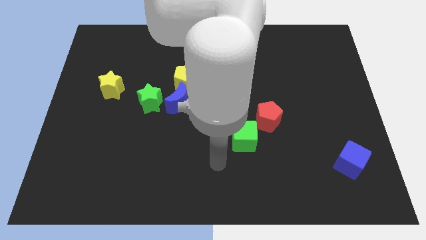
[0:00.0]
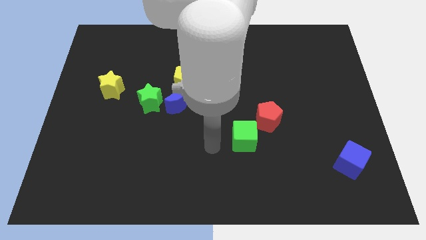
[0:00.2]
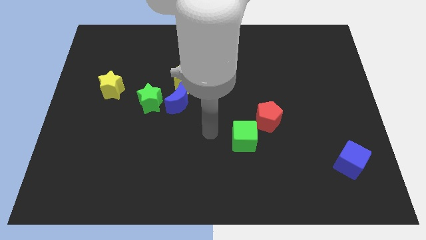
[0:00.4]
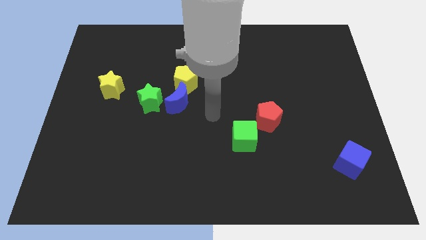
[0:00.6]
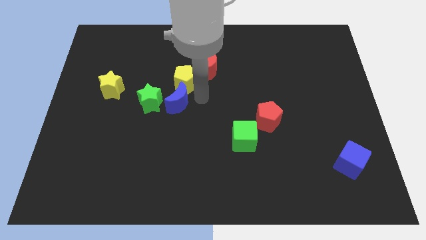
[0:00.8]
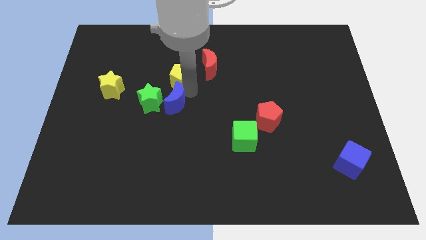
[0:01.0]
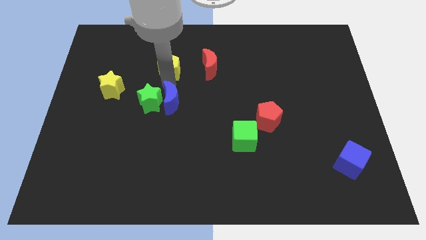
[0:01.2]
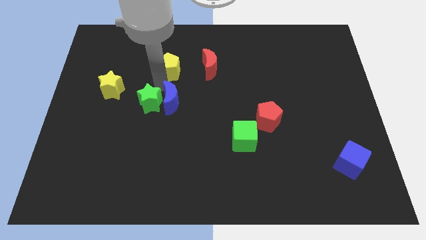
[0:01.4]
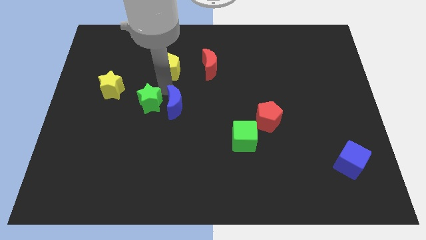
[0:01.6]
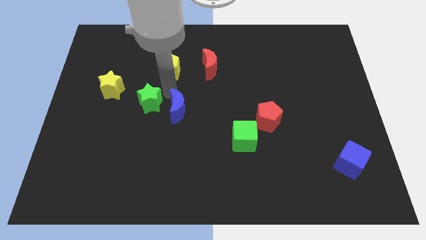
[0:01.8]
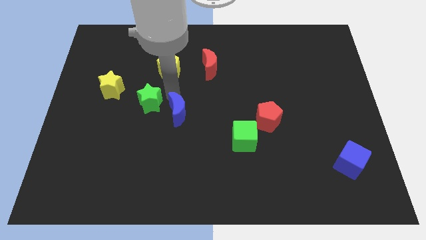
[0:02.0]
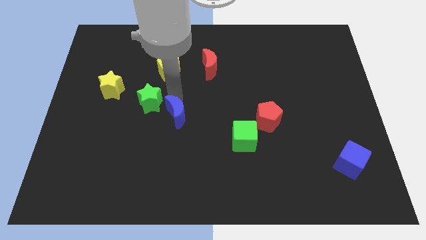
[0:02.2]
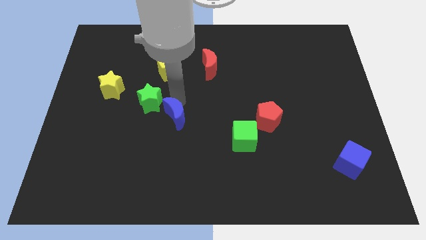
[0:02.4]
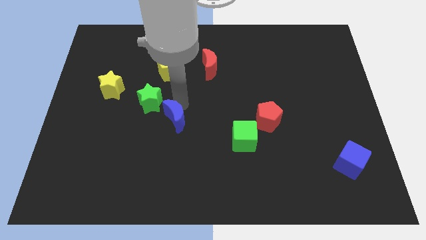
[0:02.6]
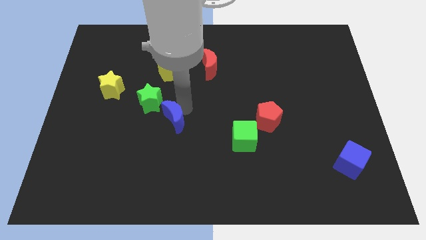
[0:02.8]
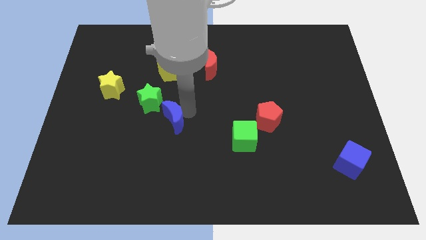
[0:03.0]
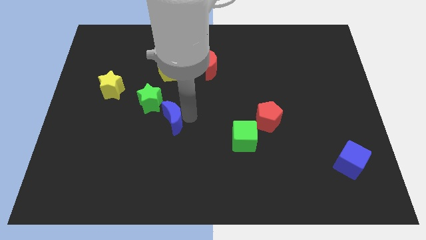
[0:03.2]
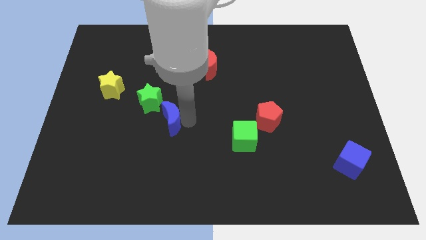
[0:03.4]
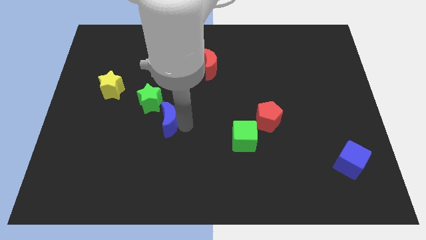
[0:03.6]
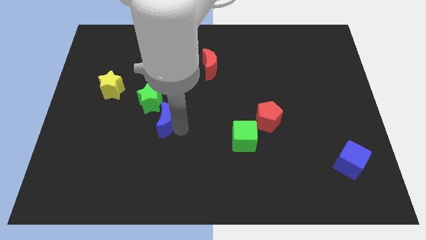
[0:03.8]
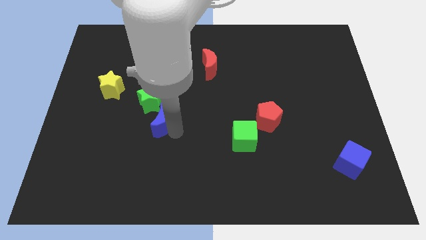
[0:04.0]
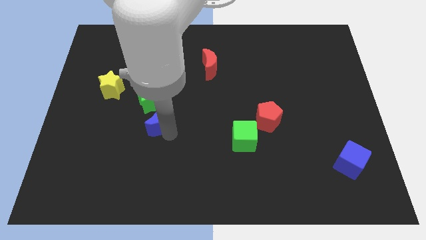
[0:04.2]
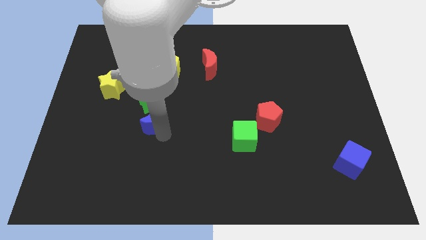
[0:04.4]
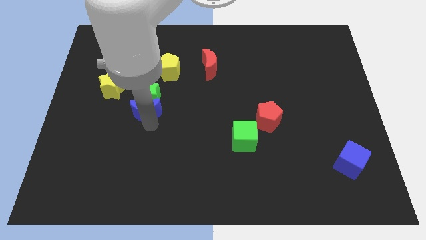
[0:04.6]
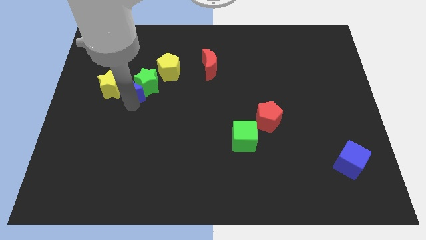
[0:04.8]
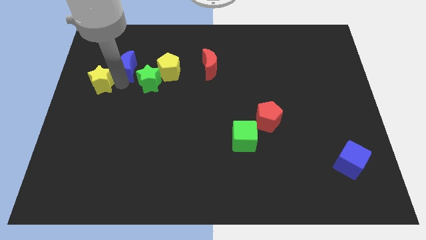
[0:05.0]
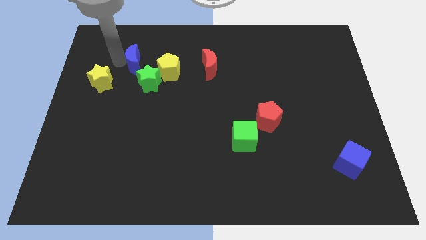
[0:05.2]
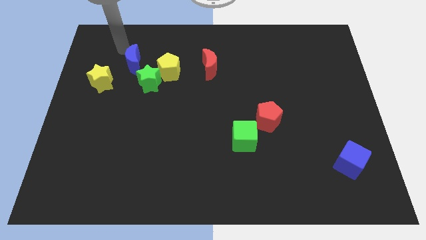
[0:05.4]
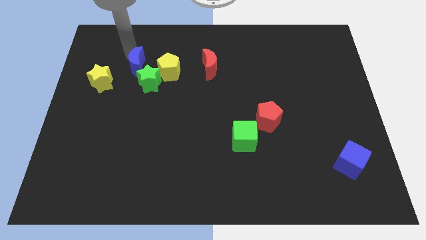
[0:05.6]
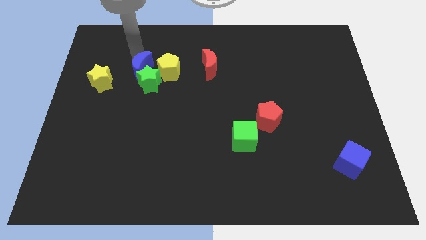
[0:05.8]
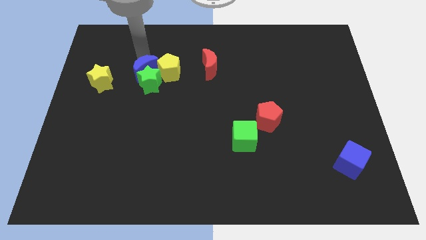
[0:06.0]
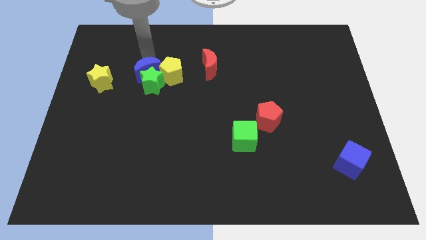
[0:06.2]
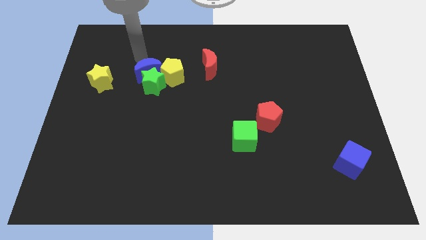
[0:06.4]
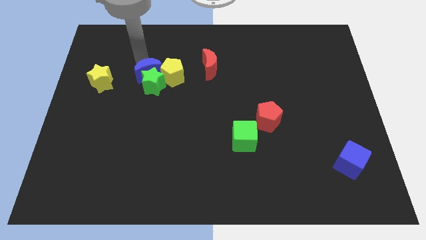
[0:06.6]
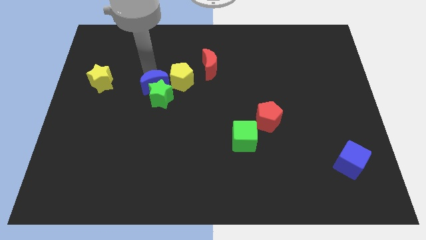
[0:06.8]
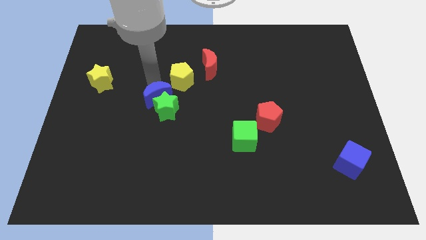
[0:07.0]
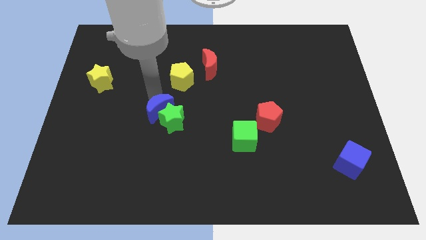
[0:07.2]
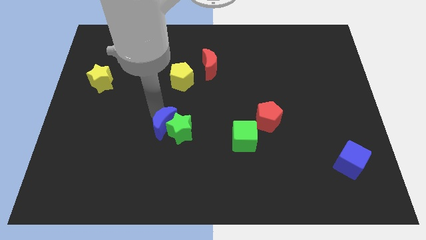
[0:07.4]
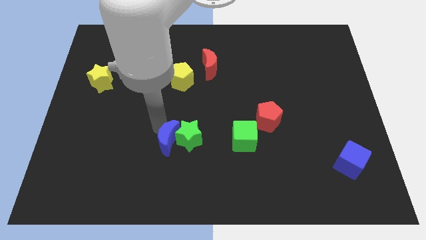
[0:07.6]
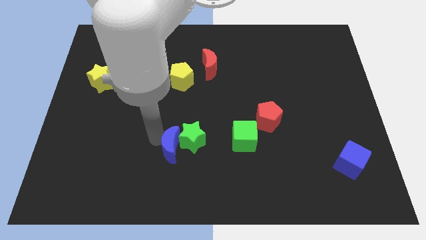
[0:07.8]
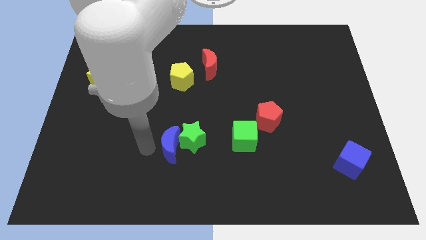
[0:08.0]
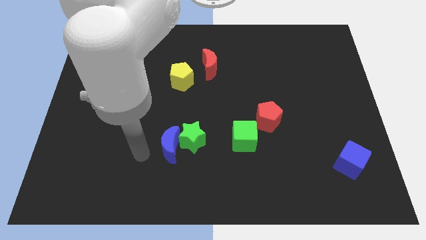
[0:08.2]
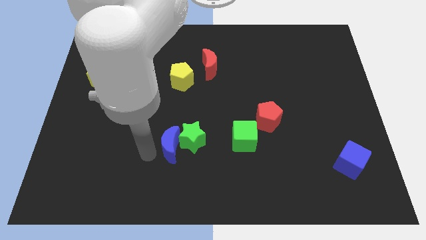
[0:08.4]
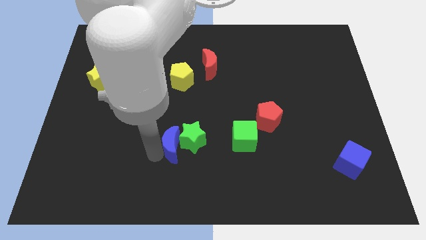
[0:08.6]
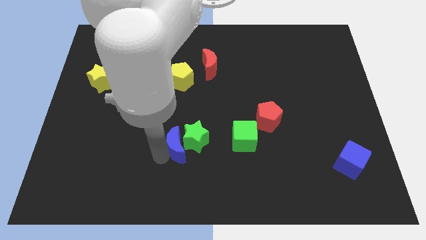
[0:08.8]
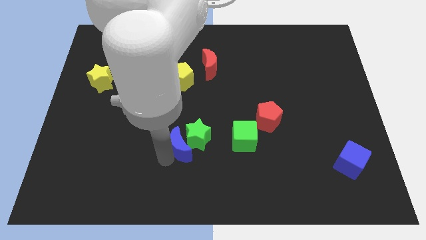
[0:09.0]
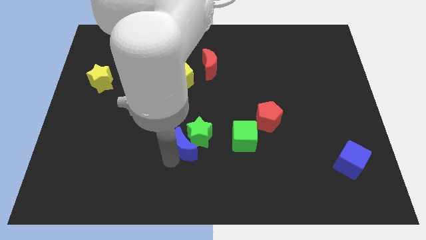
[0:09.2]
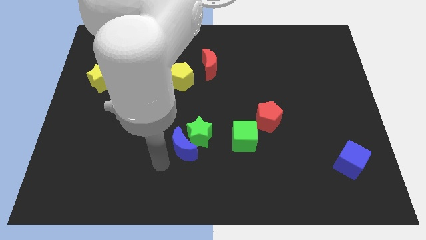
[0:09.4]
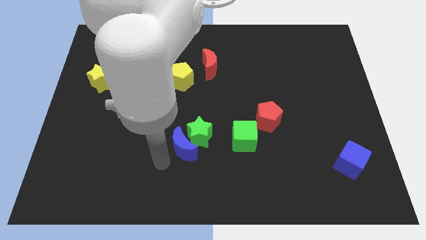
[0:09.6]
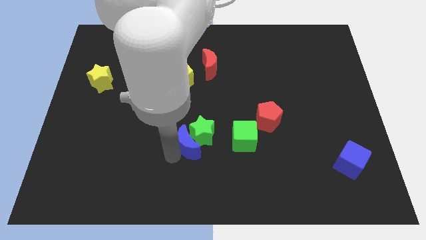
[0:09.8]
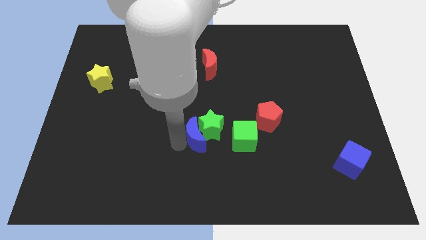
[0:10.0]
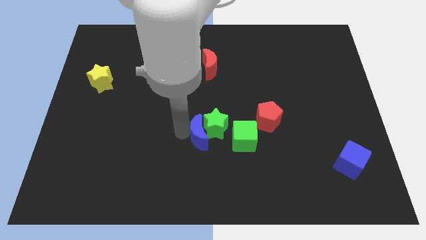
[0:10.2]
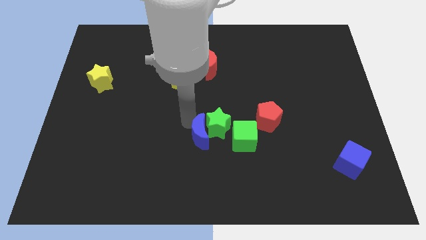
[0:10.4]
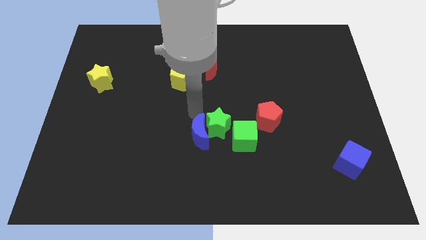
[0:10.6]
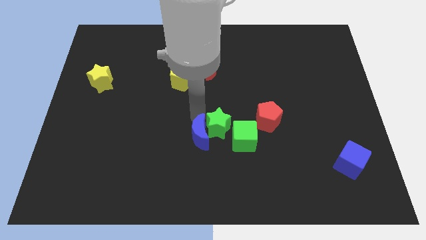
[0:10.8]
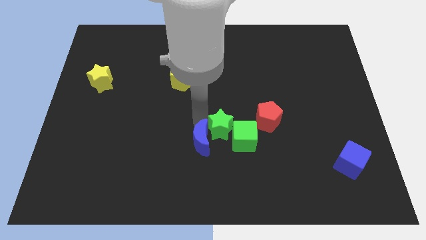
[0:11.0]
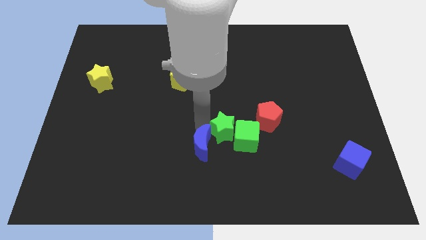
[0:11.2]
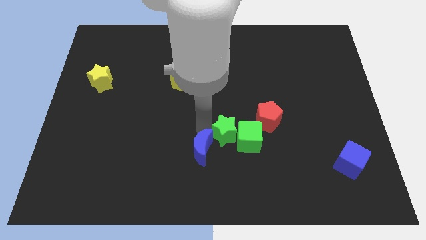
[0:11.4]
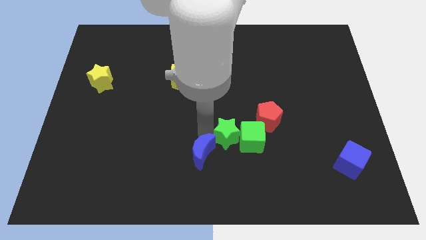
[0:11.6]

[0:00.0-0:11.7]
move the blue moon to the bottom side

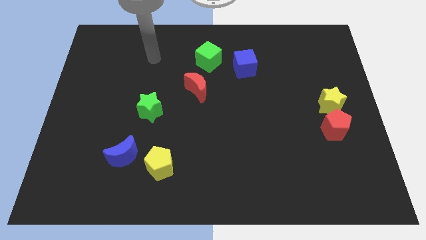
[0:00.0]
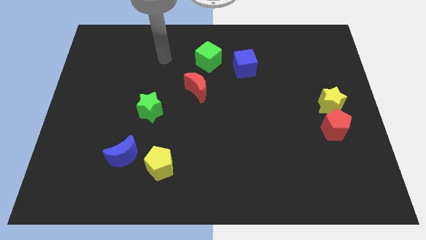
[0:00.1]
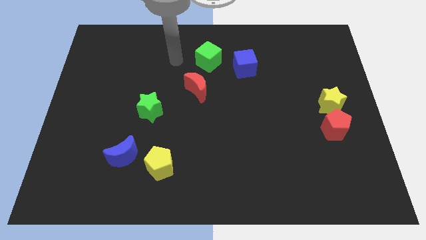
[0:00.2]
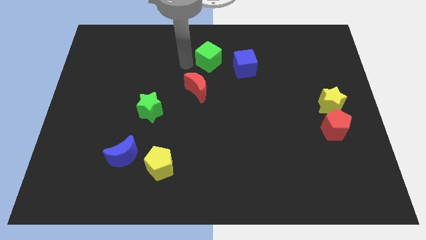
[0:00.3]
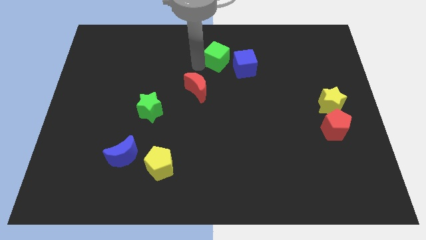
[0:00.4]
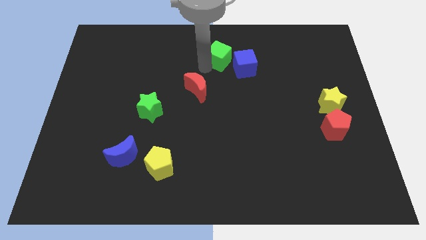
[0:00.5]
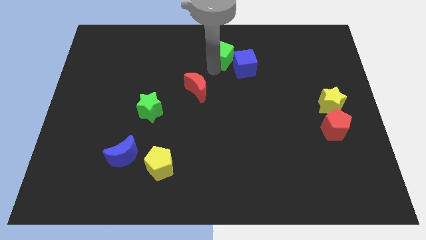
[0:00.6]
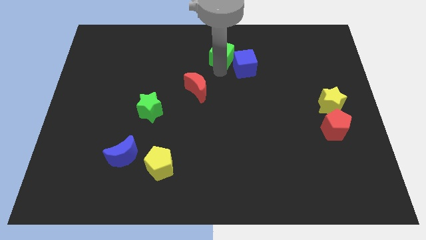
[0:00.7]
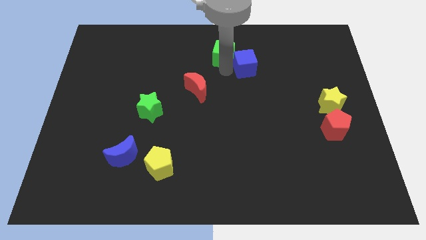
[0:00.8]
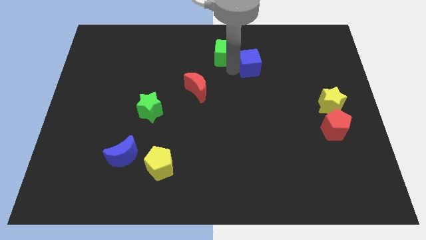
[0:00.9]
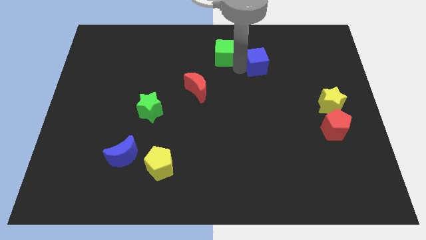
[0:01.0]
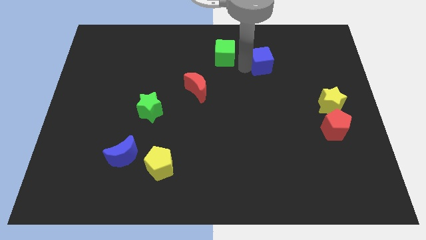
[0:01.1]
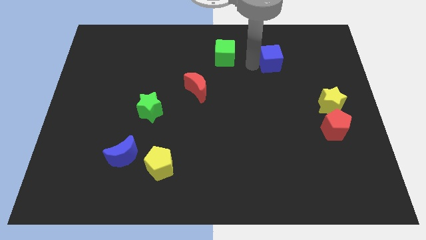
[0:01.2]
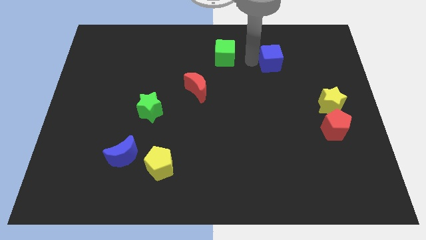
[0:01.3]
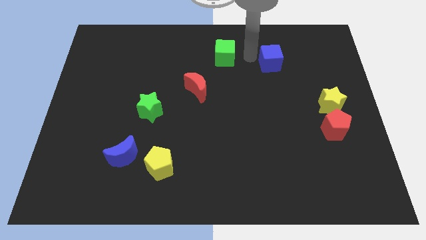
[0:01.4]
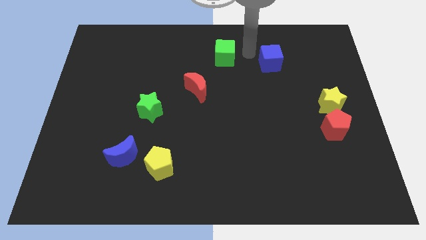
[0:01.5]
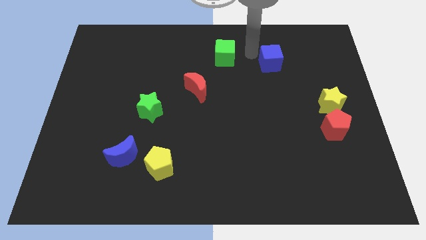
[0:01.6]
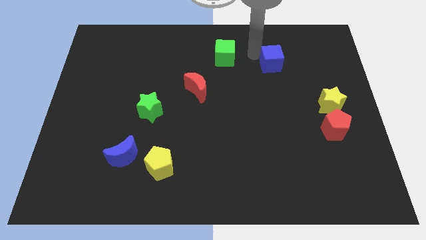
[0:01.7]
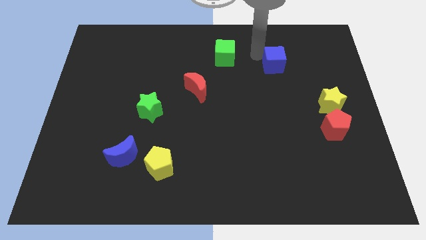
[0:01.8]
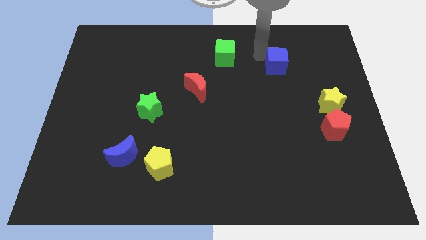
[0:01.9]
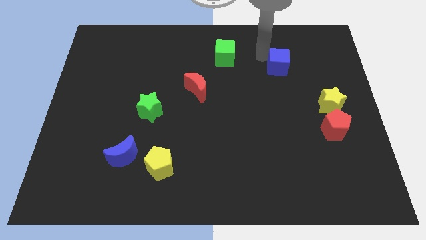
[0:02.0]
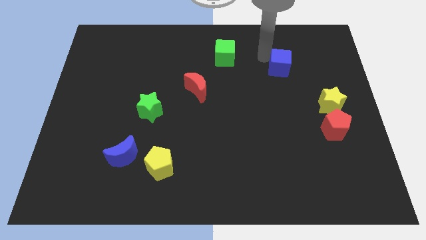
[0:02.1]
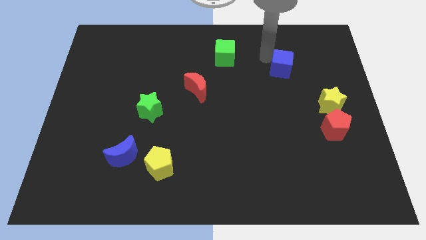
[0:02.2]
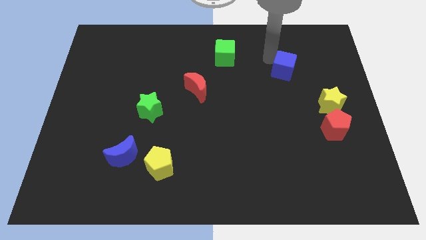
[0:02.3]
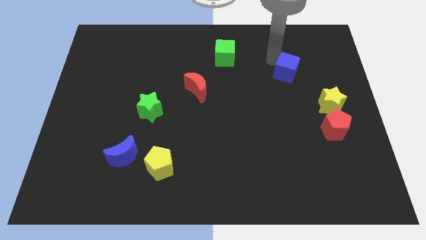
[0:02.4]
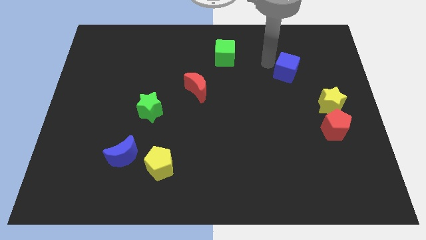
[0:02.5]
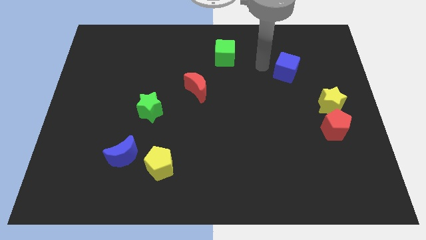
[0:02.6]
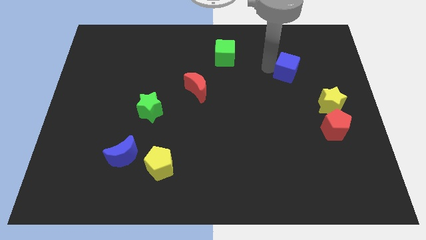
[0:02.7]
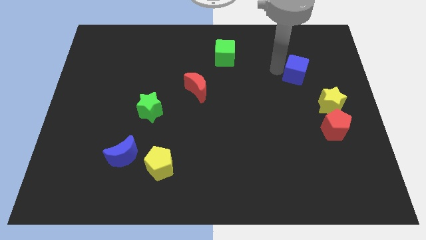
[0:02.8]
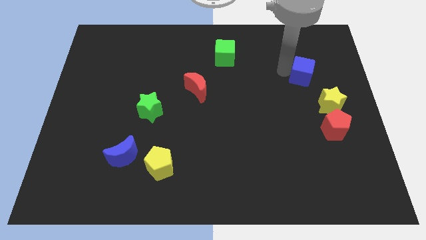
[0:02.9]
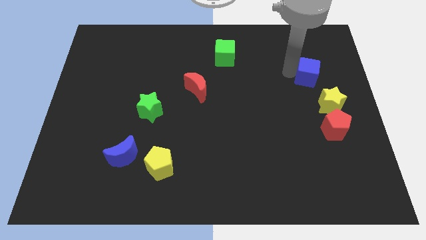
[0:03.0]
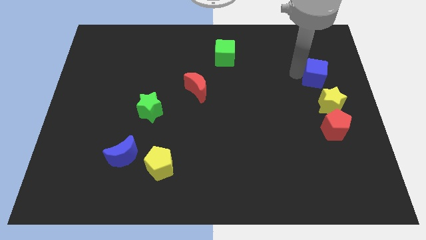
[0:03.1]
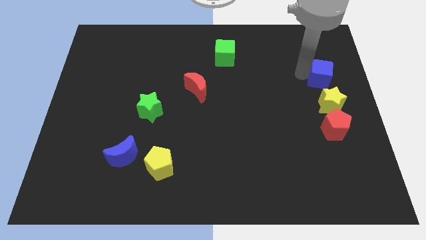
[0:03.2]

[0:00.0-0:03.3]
slide the blue cube to the right side
